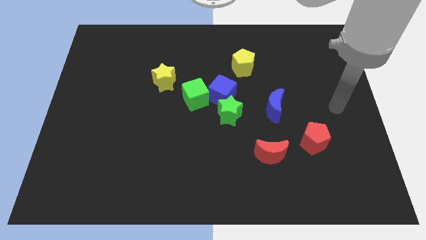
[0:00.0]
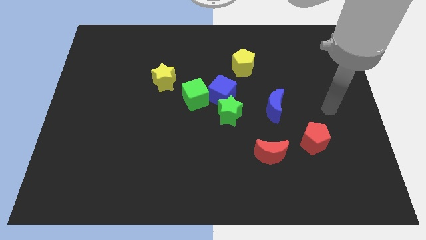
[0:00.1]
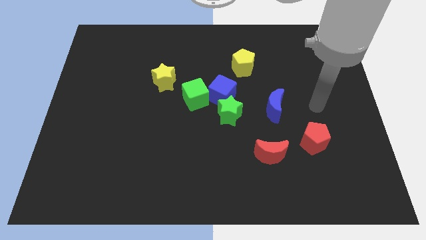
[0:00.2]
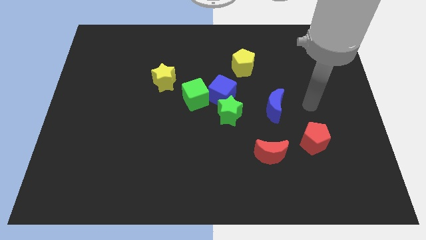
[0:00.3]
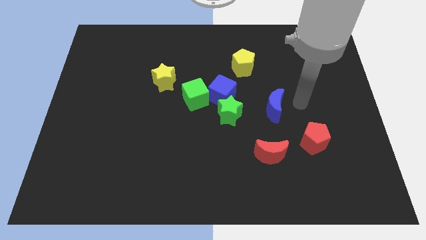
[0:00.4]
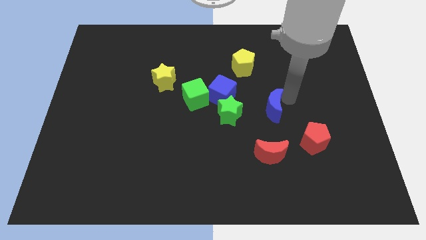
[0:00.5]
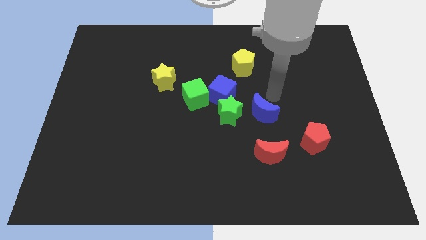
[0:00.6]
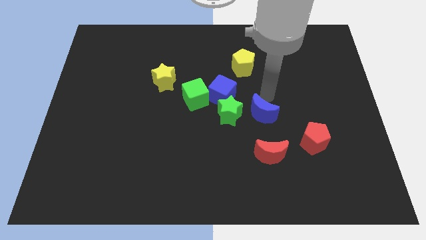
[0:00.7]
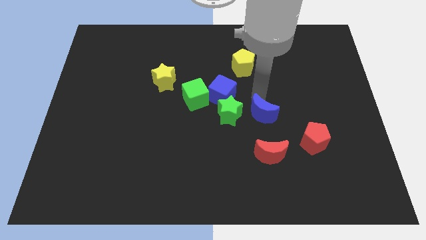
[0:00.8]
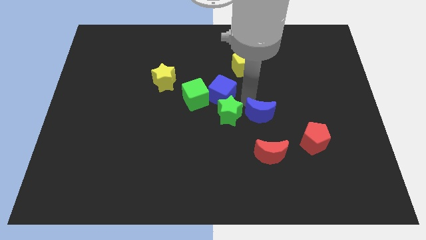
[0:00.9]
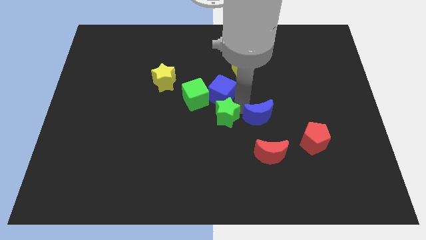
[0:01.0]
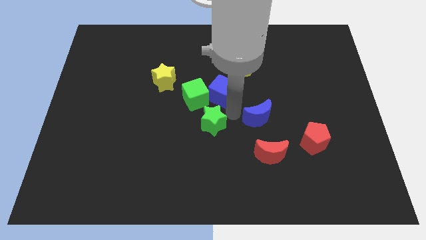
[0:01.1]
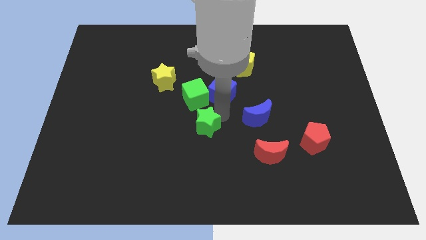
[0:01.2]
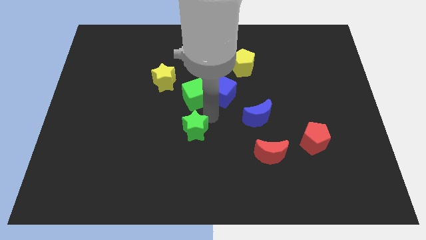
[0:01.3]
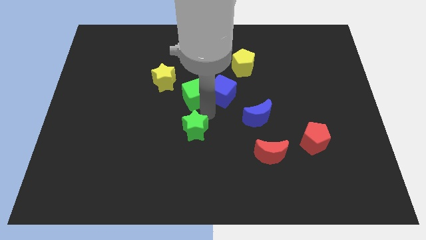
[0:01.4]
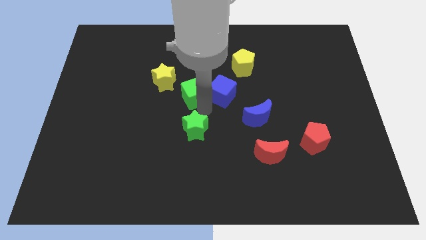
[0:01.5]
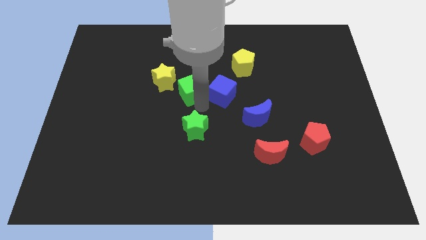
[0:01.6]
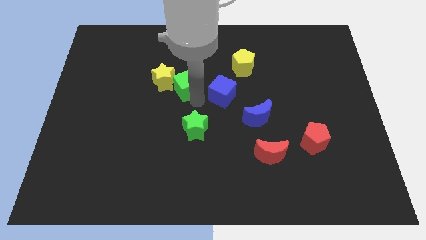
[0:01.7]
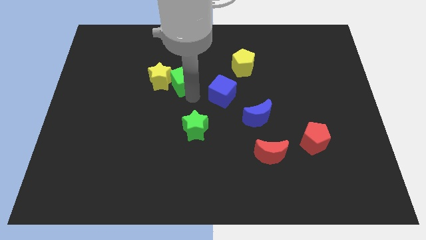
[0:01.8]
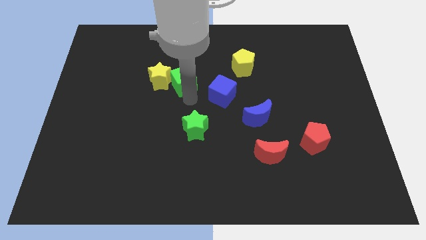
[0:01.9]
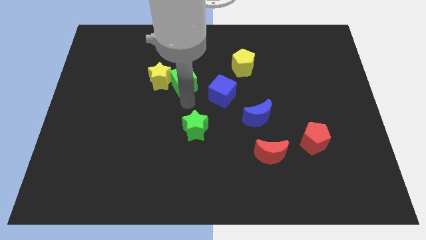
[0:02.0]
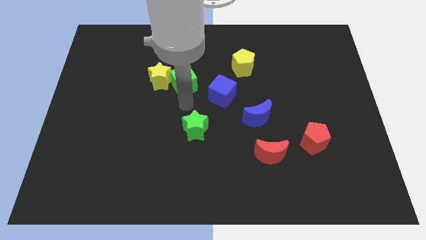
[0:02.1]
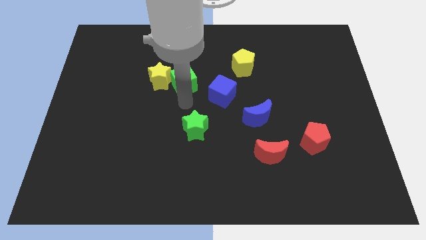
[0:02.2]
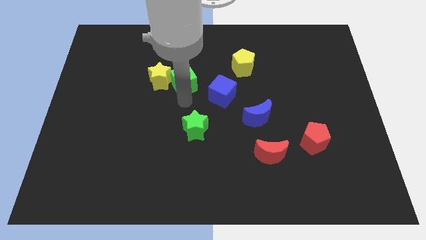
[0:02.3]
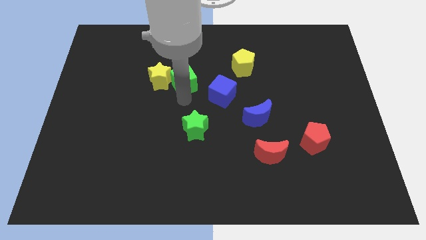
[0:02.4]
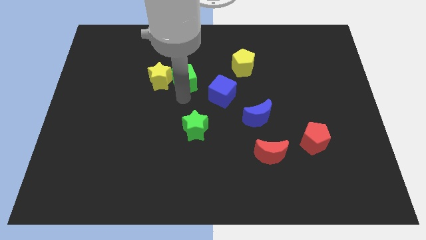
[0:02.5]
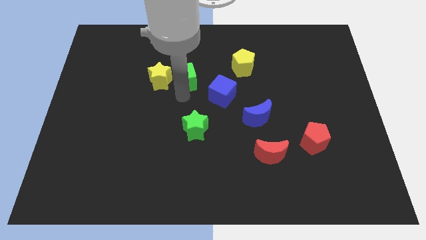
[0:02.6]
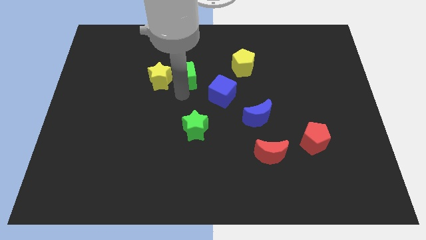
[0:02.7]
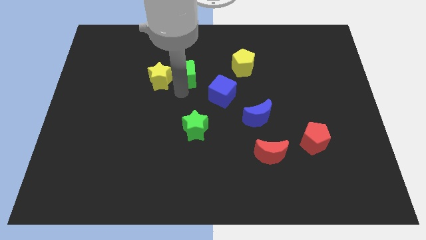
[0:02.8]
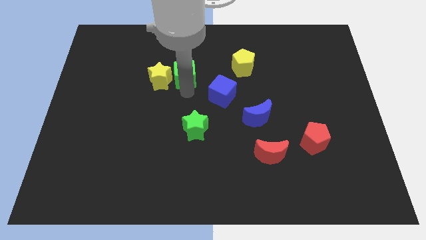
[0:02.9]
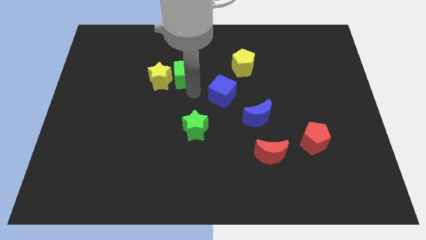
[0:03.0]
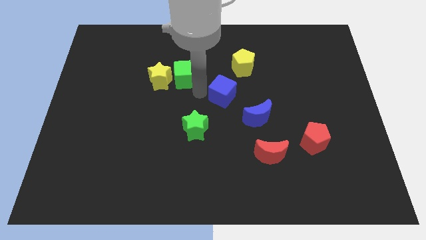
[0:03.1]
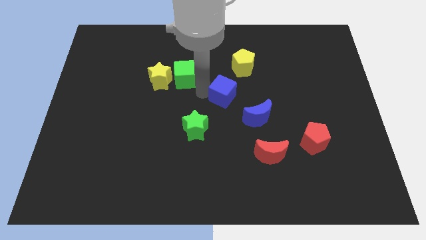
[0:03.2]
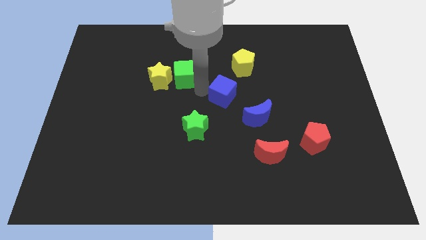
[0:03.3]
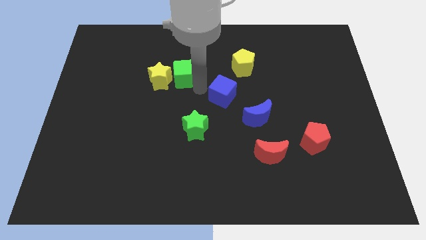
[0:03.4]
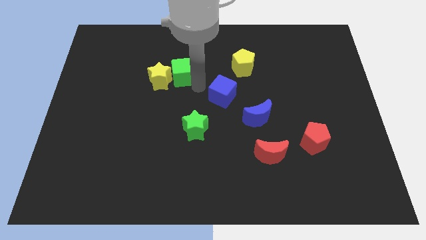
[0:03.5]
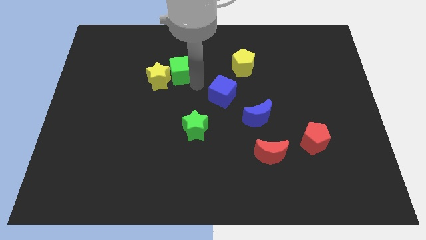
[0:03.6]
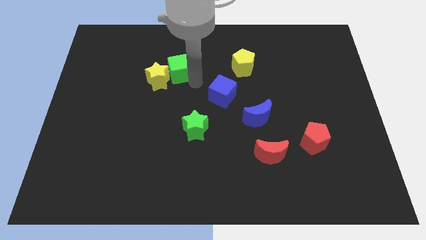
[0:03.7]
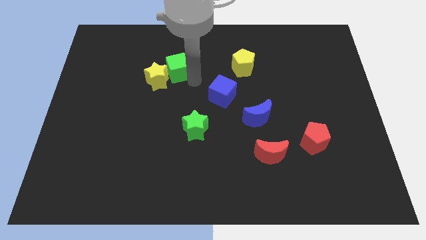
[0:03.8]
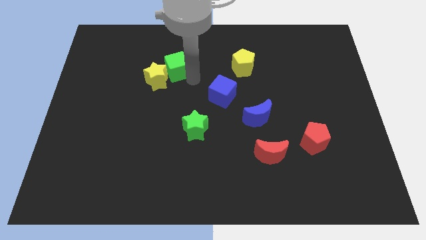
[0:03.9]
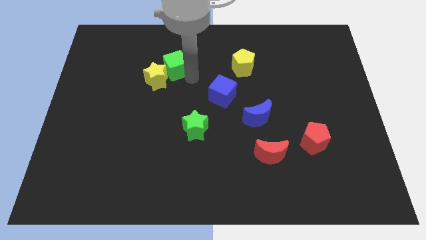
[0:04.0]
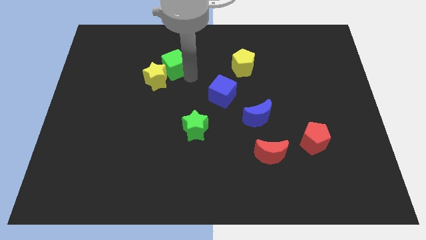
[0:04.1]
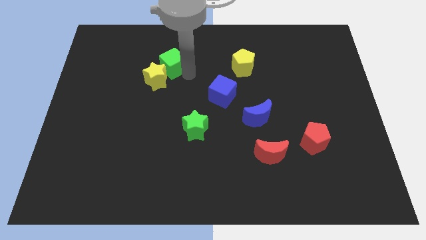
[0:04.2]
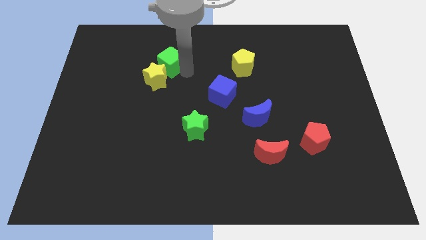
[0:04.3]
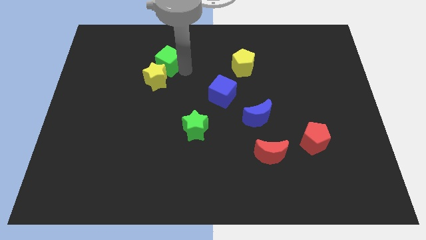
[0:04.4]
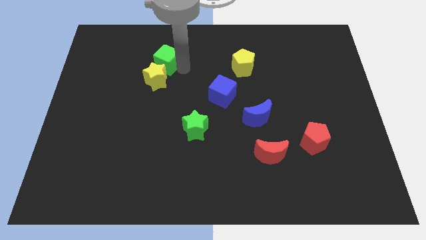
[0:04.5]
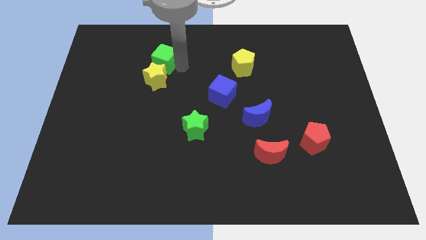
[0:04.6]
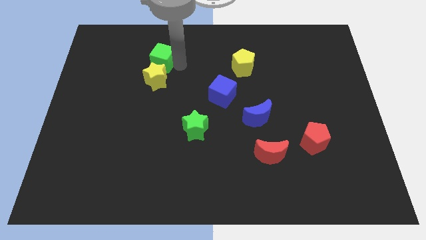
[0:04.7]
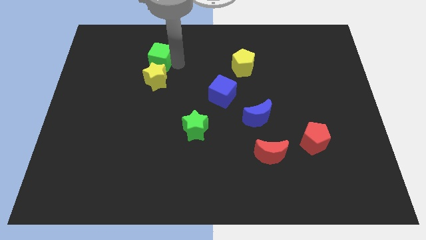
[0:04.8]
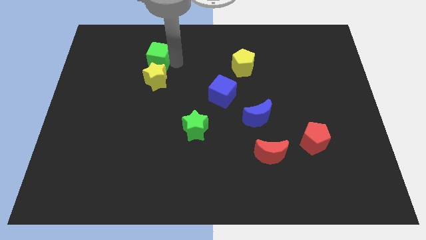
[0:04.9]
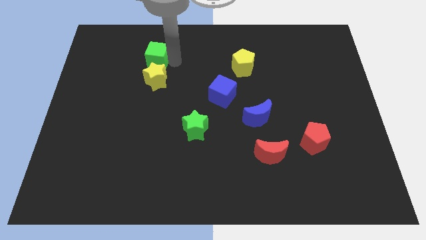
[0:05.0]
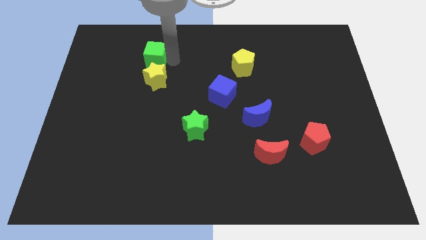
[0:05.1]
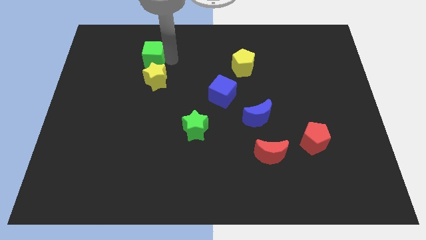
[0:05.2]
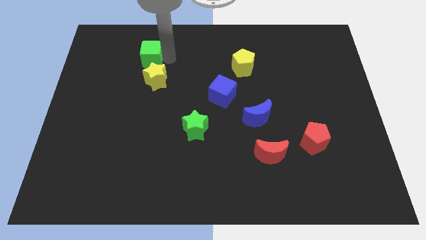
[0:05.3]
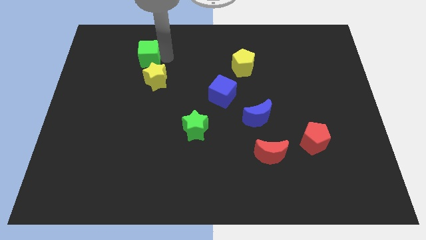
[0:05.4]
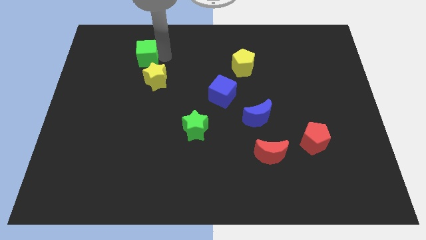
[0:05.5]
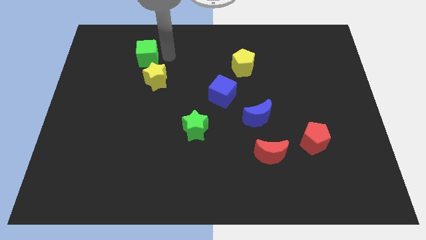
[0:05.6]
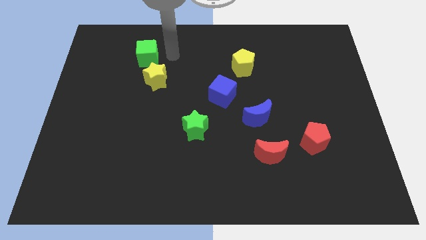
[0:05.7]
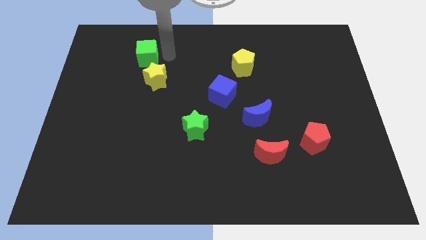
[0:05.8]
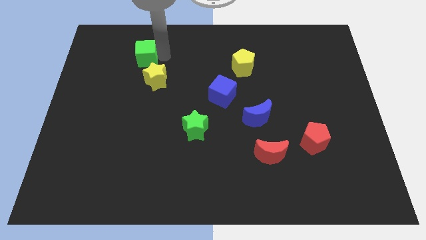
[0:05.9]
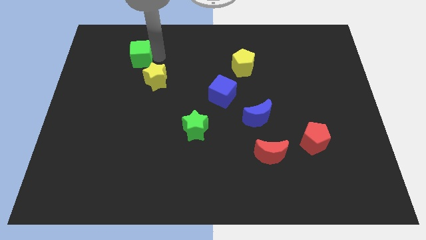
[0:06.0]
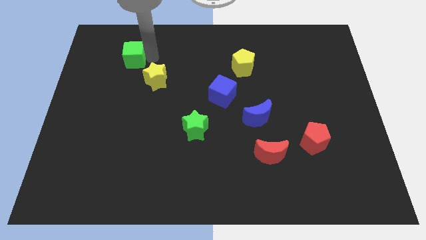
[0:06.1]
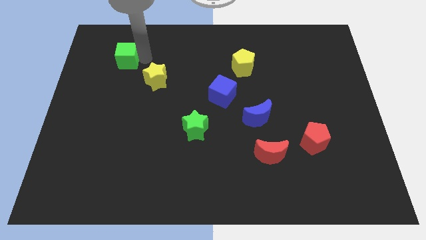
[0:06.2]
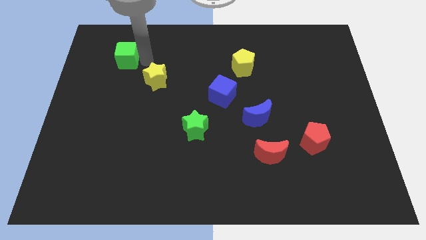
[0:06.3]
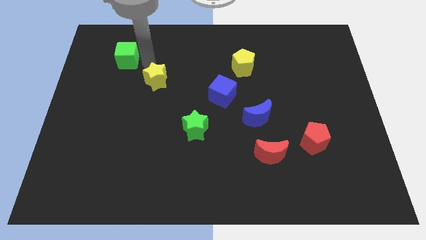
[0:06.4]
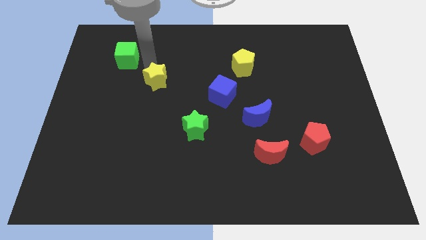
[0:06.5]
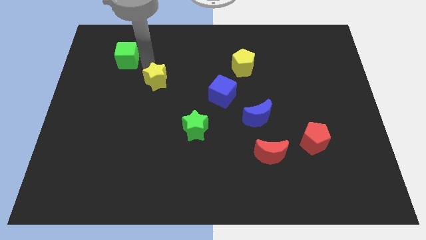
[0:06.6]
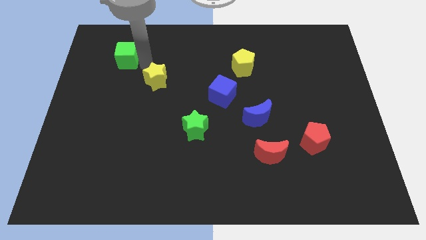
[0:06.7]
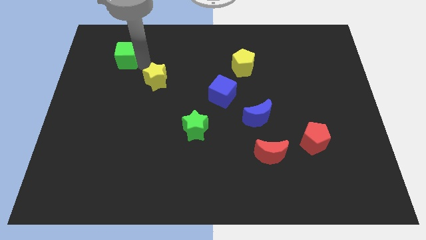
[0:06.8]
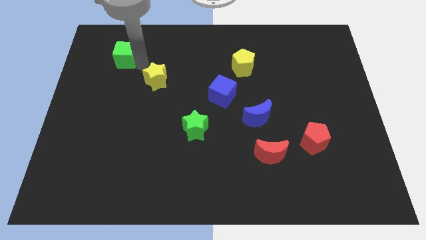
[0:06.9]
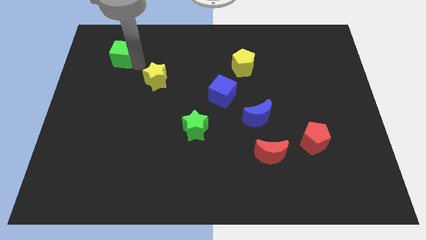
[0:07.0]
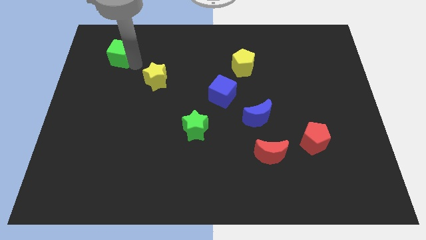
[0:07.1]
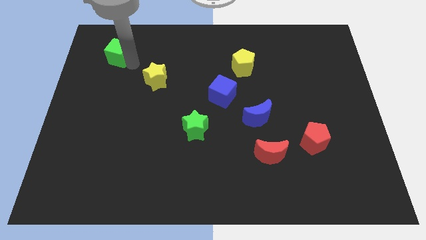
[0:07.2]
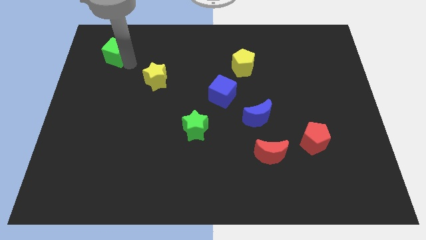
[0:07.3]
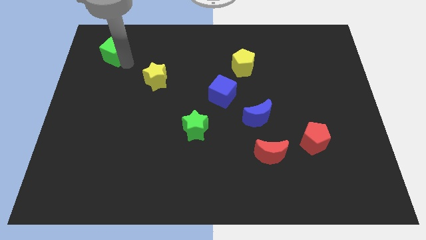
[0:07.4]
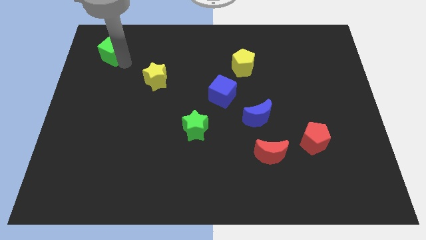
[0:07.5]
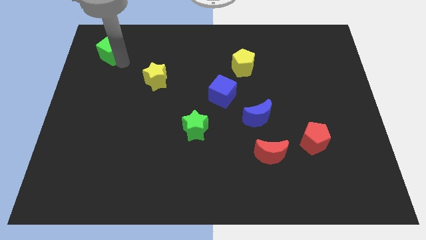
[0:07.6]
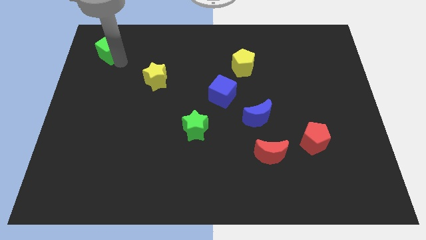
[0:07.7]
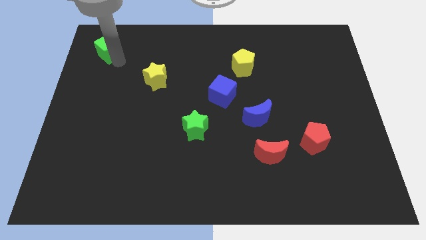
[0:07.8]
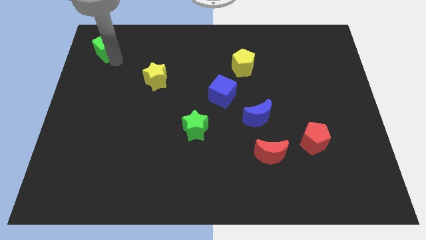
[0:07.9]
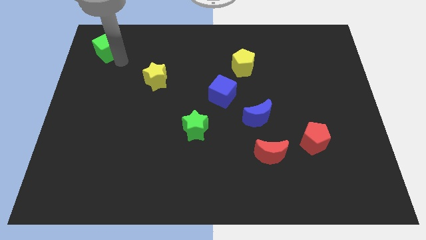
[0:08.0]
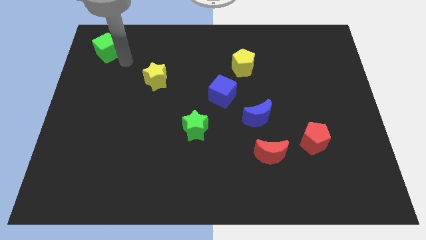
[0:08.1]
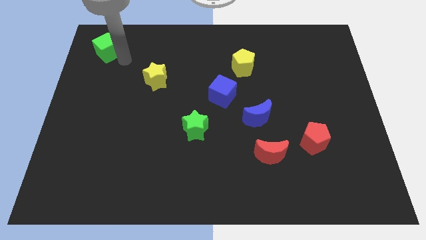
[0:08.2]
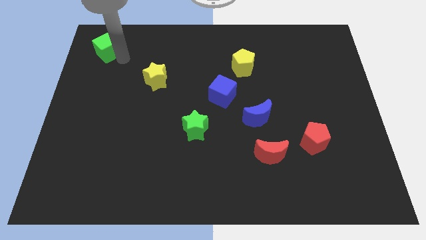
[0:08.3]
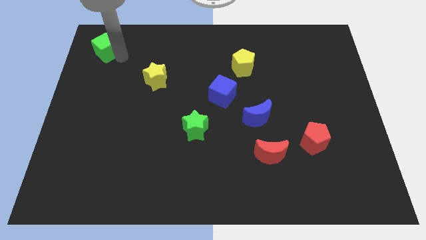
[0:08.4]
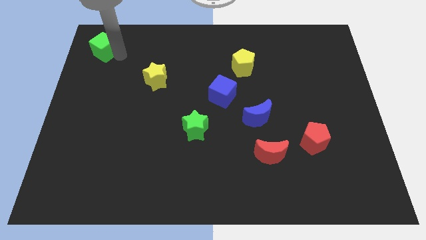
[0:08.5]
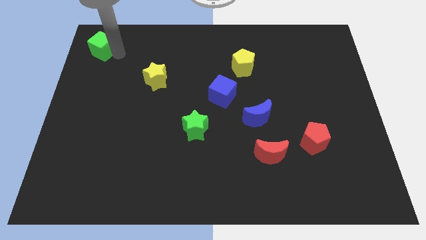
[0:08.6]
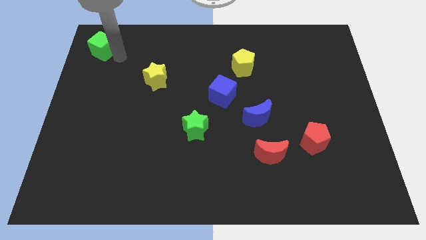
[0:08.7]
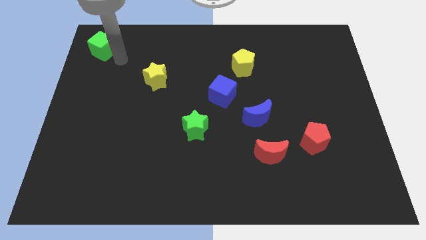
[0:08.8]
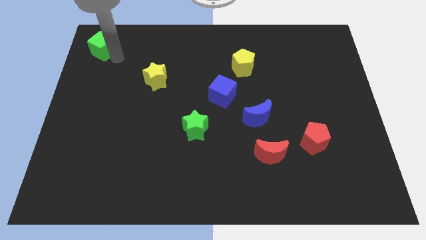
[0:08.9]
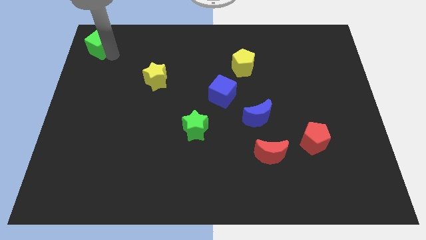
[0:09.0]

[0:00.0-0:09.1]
slide the green cube to the upper left corner
